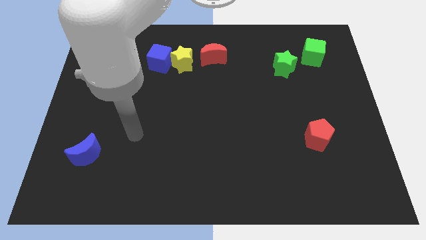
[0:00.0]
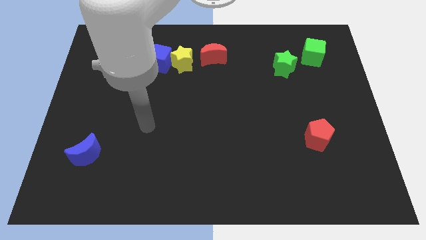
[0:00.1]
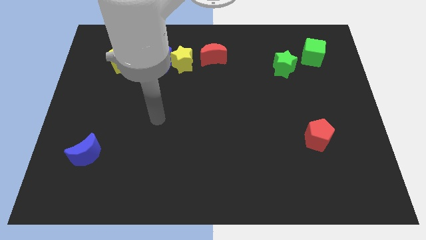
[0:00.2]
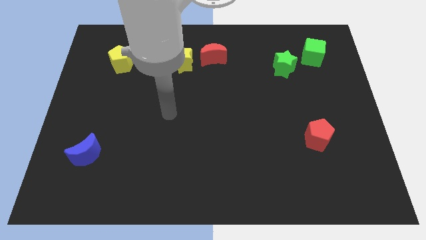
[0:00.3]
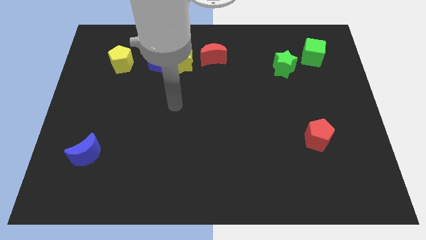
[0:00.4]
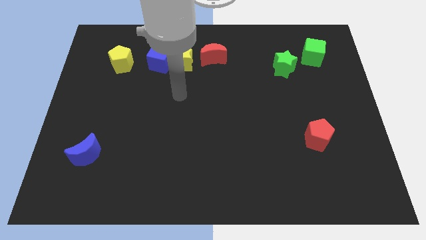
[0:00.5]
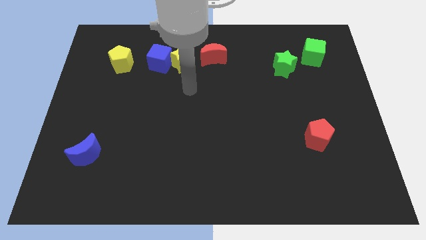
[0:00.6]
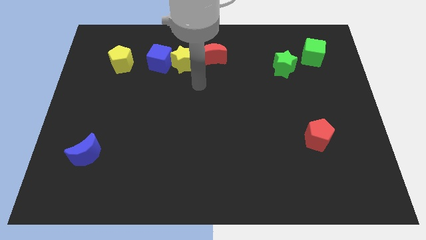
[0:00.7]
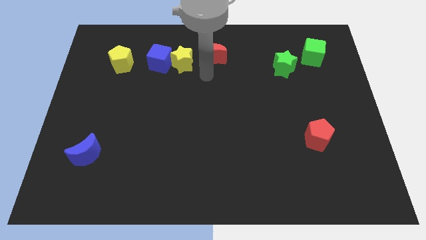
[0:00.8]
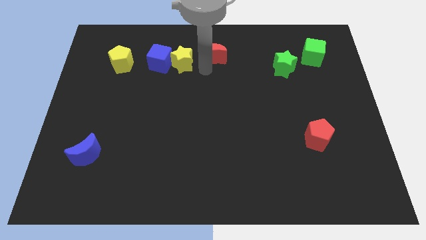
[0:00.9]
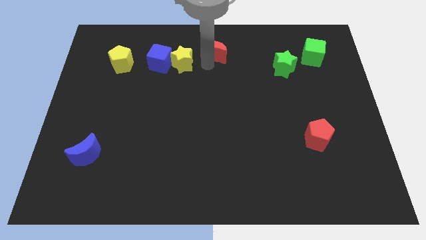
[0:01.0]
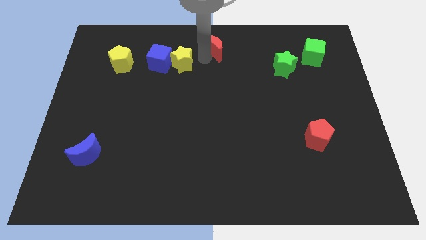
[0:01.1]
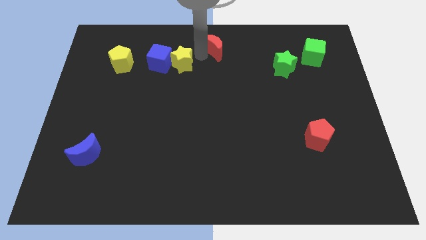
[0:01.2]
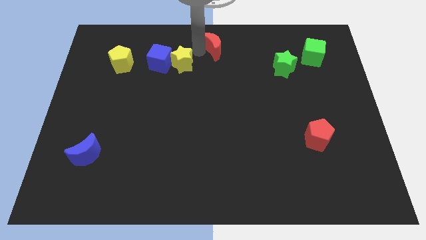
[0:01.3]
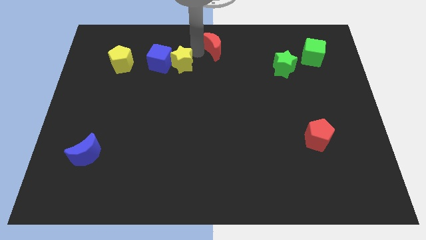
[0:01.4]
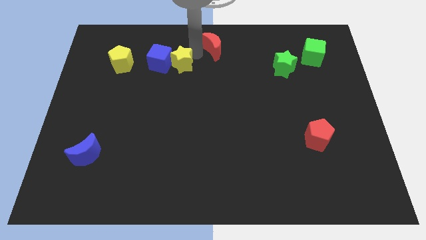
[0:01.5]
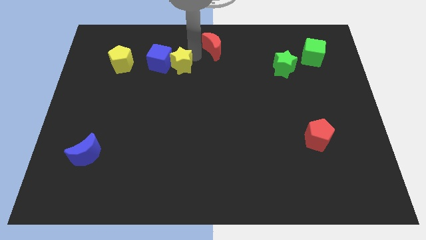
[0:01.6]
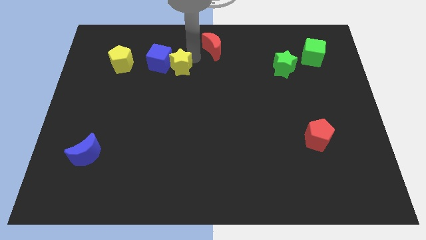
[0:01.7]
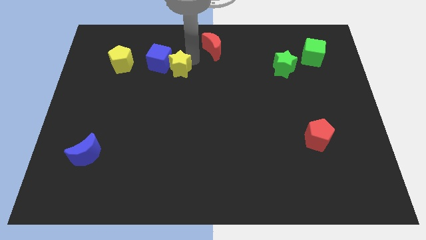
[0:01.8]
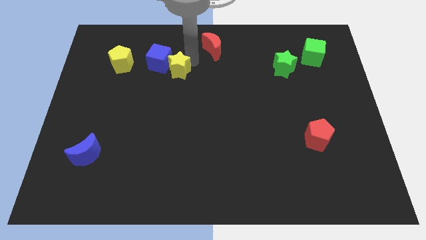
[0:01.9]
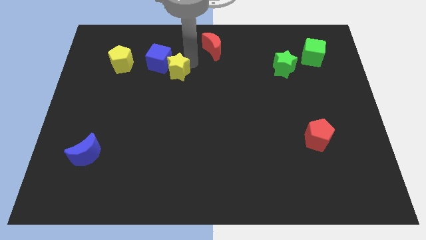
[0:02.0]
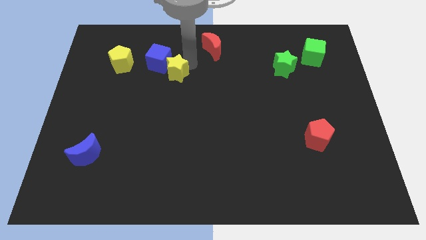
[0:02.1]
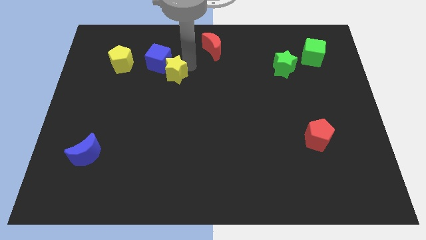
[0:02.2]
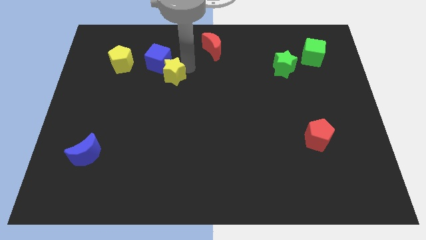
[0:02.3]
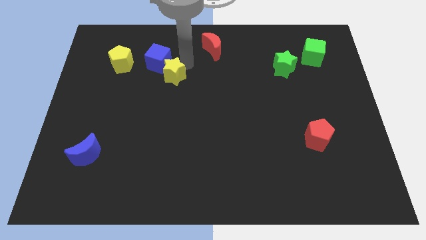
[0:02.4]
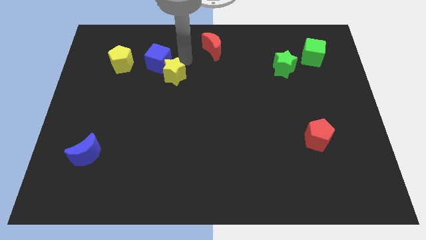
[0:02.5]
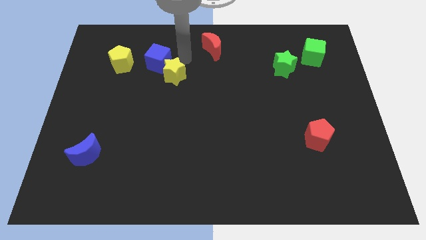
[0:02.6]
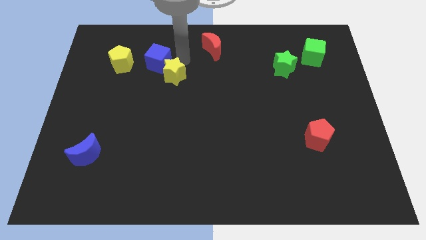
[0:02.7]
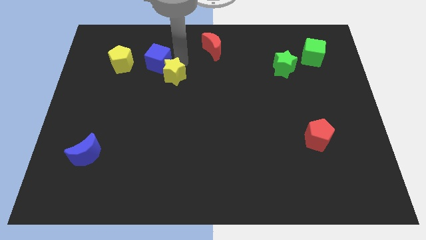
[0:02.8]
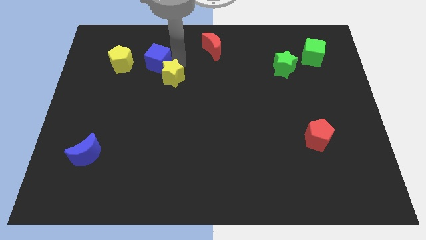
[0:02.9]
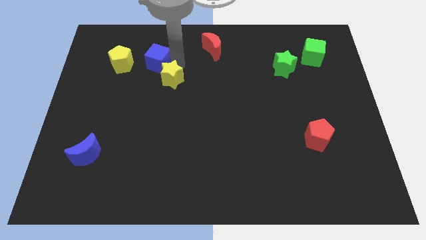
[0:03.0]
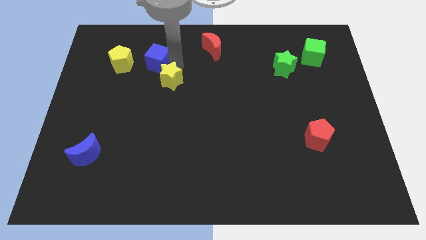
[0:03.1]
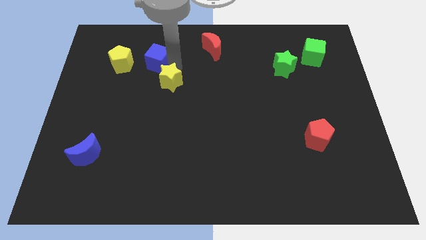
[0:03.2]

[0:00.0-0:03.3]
separate the yellow star from the blue cube and red moon

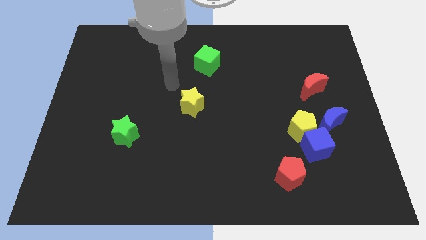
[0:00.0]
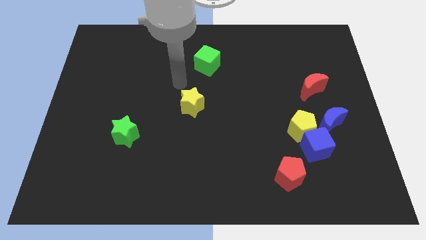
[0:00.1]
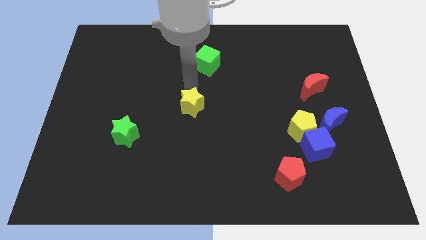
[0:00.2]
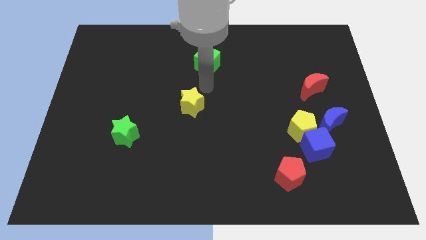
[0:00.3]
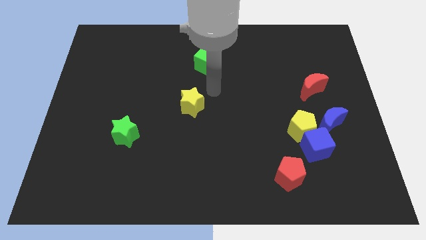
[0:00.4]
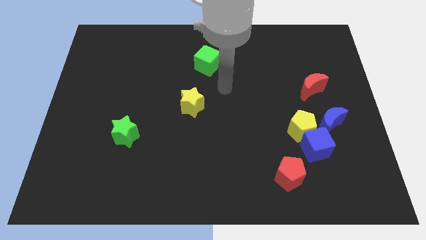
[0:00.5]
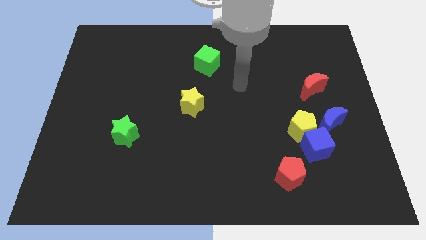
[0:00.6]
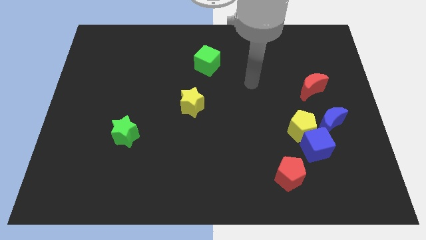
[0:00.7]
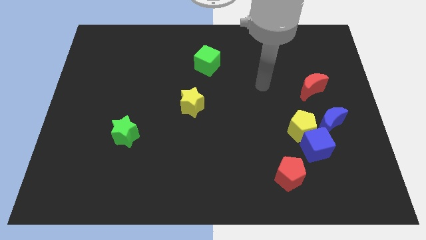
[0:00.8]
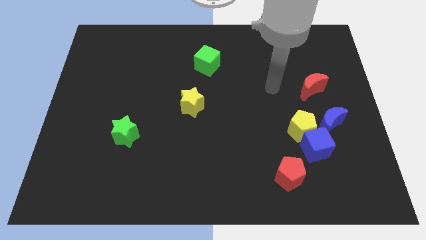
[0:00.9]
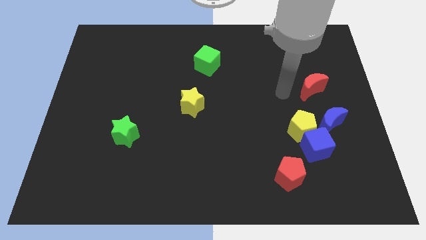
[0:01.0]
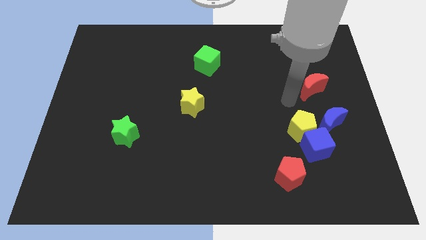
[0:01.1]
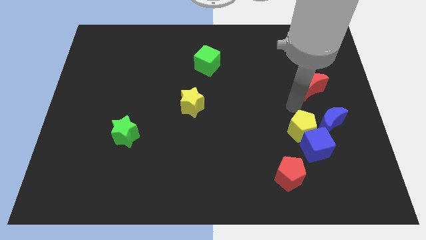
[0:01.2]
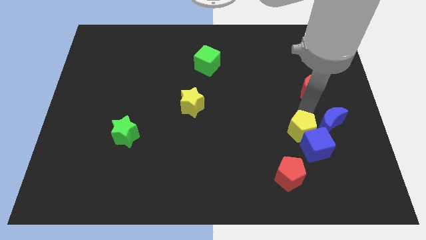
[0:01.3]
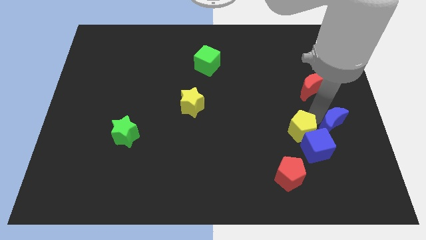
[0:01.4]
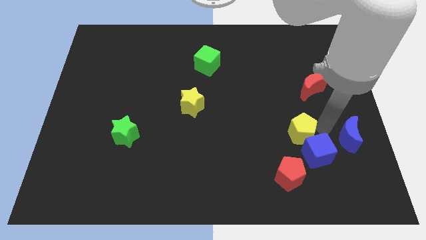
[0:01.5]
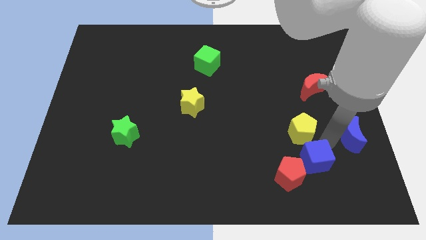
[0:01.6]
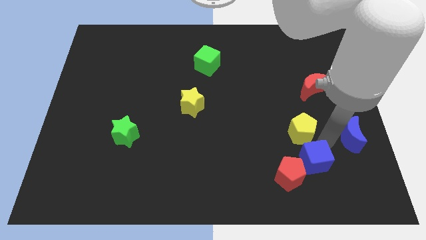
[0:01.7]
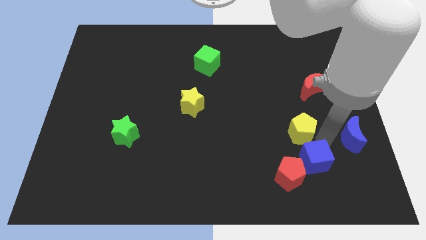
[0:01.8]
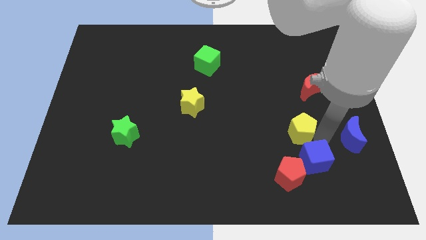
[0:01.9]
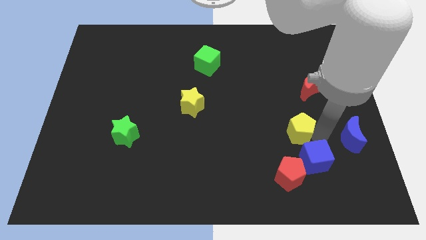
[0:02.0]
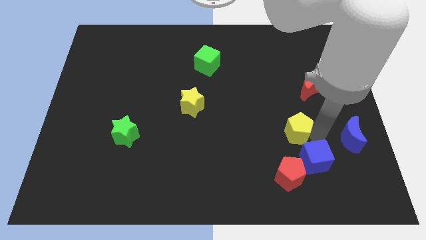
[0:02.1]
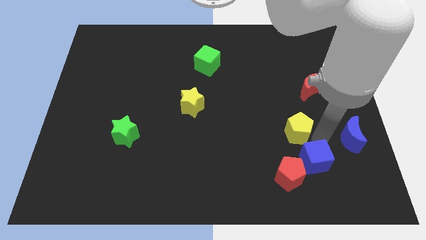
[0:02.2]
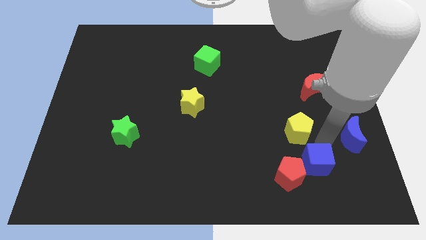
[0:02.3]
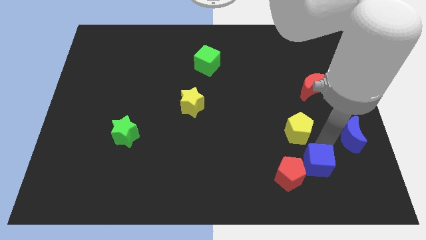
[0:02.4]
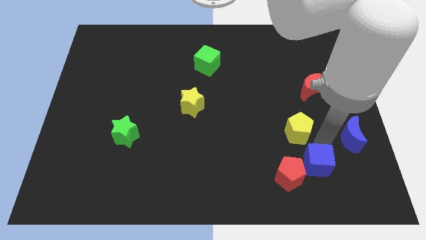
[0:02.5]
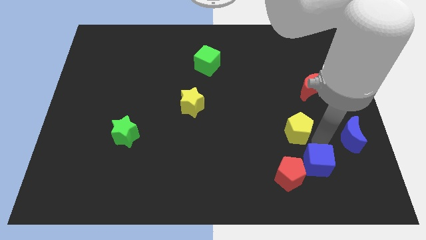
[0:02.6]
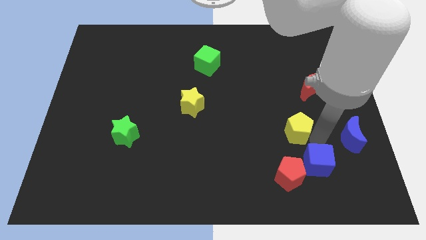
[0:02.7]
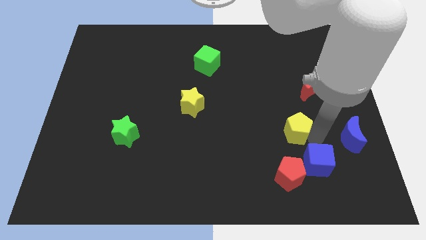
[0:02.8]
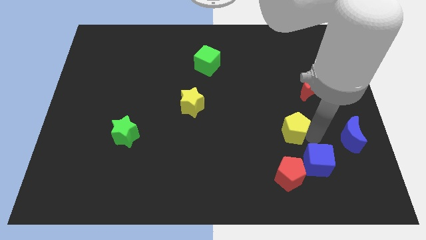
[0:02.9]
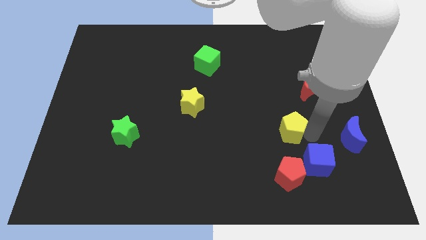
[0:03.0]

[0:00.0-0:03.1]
move the yellow pentagon away from the blue cube and blue moon

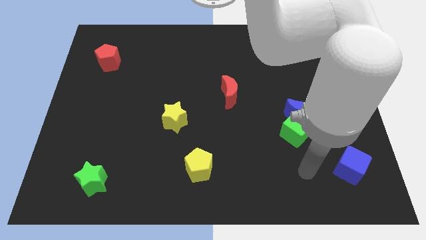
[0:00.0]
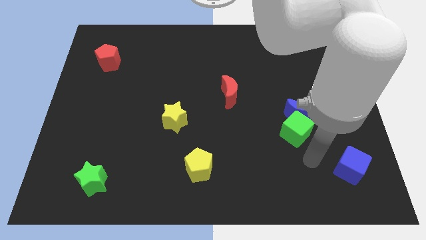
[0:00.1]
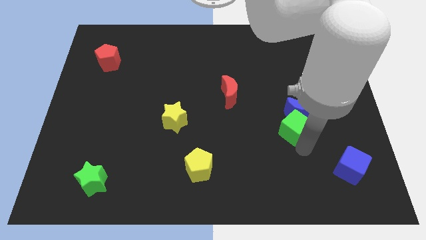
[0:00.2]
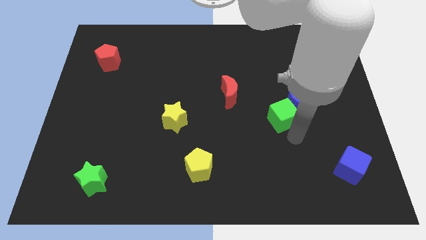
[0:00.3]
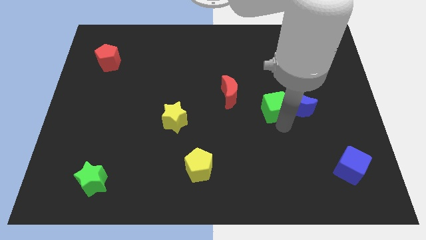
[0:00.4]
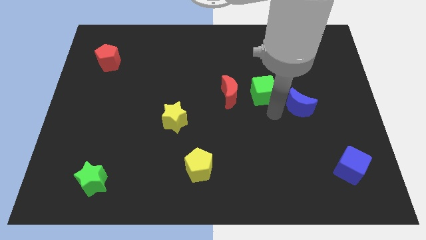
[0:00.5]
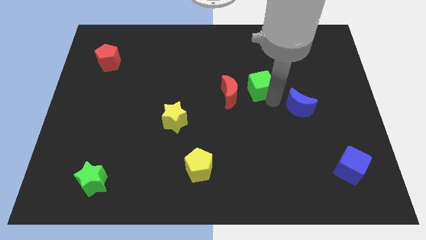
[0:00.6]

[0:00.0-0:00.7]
move the blue moon away from the green cube

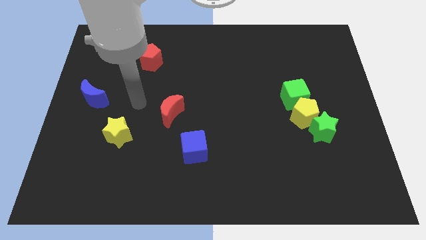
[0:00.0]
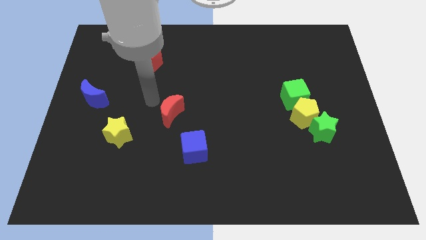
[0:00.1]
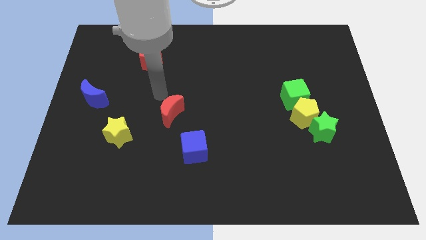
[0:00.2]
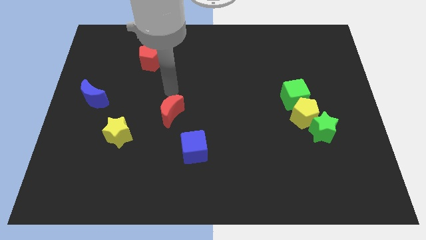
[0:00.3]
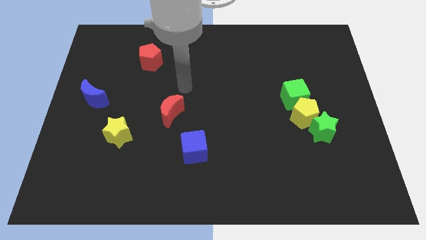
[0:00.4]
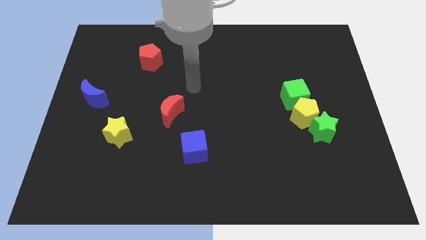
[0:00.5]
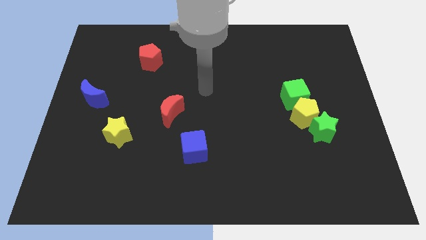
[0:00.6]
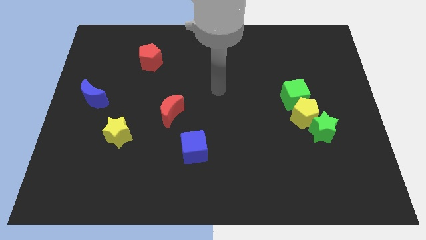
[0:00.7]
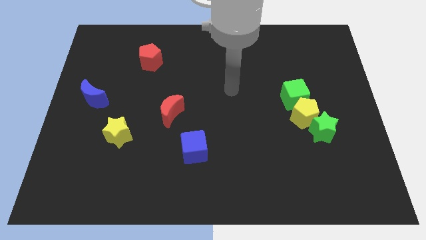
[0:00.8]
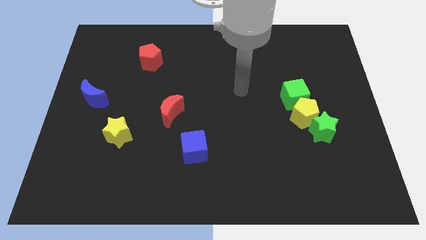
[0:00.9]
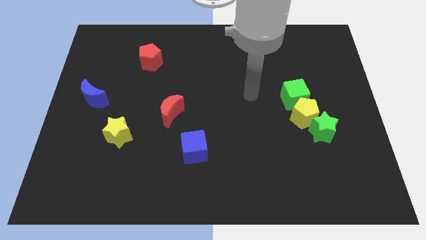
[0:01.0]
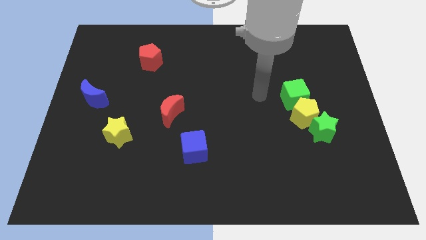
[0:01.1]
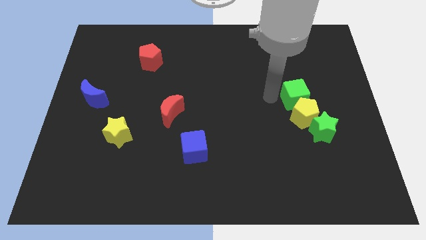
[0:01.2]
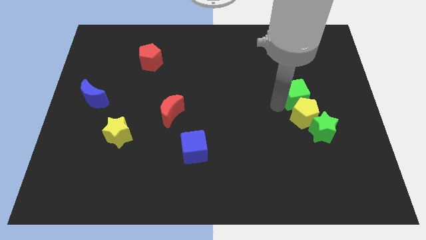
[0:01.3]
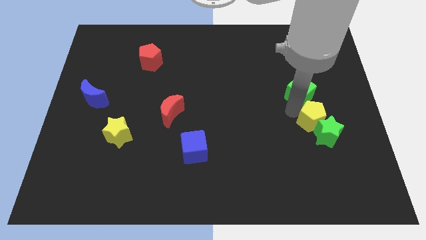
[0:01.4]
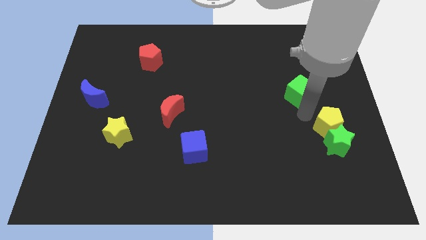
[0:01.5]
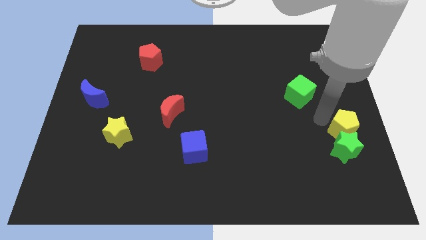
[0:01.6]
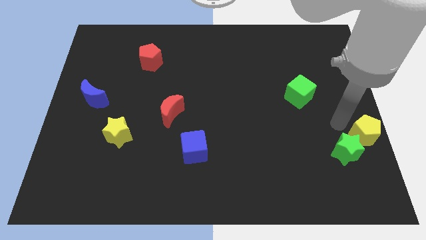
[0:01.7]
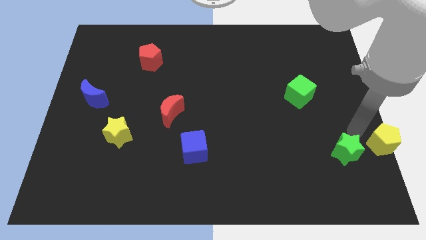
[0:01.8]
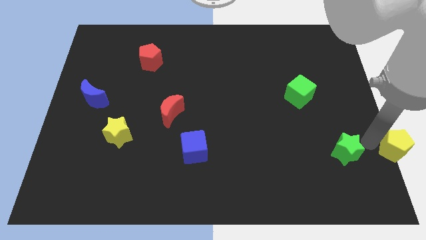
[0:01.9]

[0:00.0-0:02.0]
move the green star away from the yellow pentagon

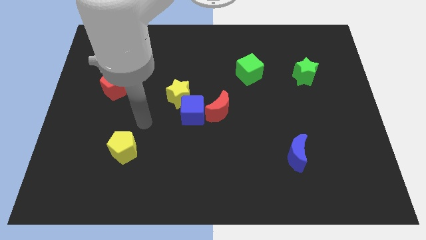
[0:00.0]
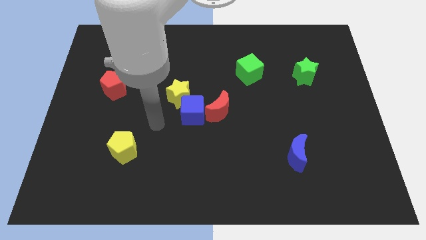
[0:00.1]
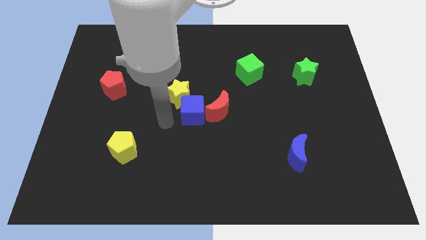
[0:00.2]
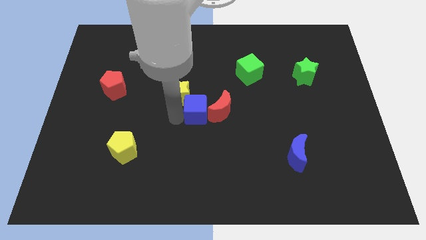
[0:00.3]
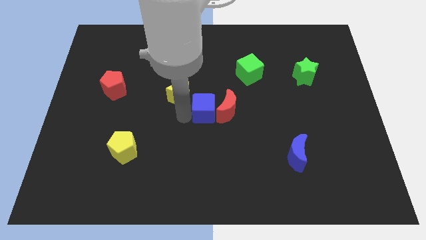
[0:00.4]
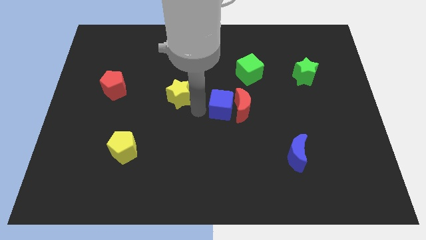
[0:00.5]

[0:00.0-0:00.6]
move the yellow star away from the blue cube
